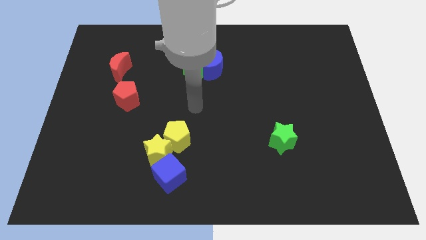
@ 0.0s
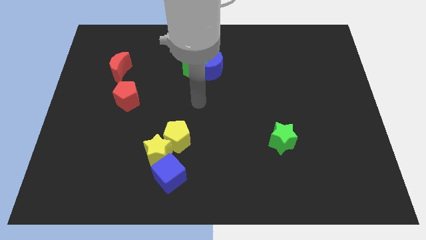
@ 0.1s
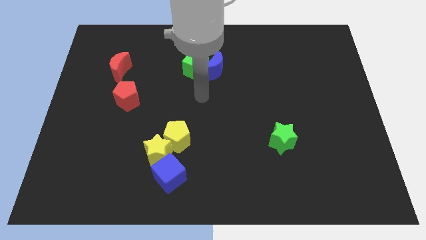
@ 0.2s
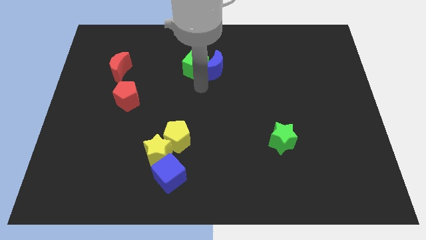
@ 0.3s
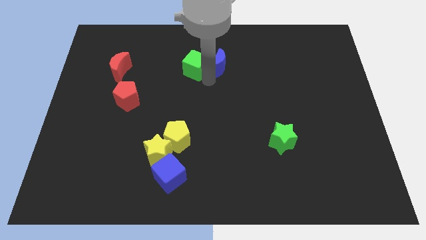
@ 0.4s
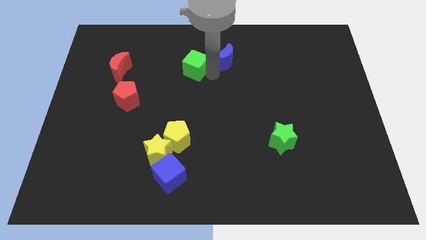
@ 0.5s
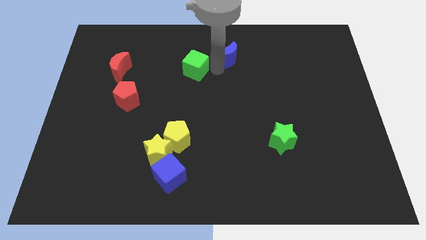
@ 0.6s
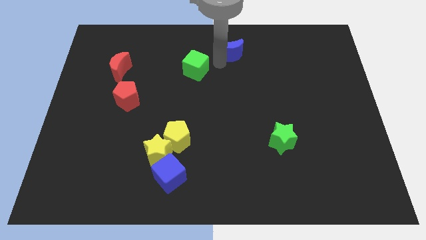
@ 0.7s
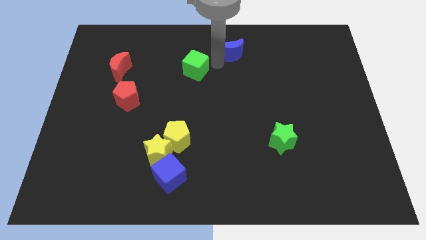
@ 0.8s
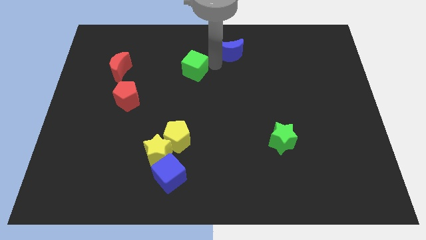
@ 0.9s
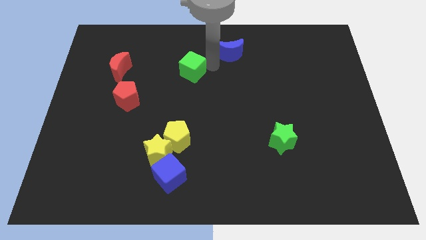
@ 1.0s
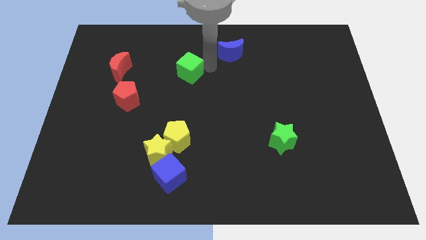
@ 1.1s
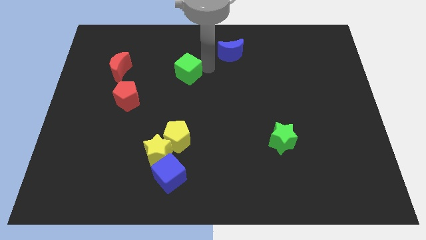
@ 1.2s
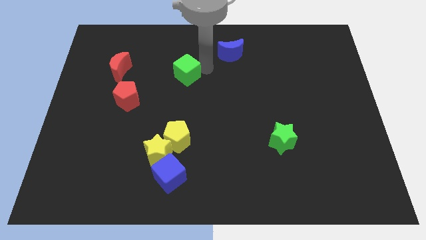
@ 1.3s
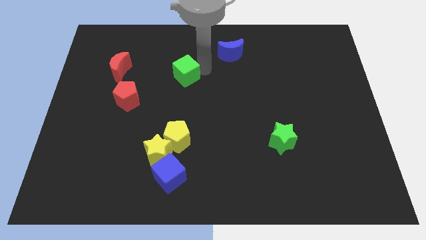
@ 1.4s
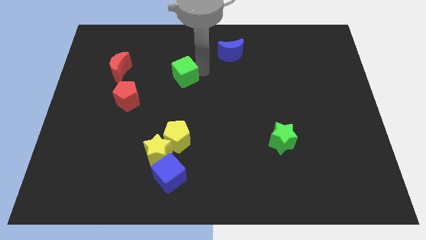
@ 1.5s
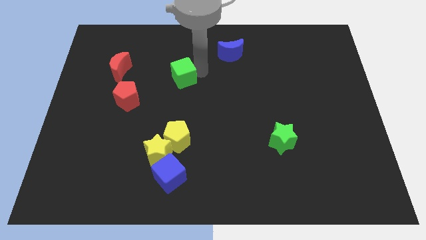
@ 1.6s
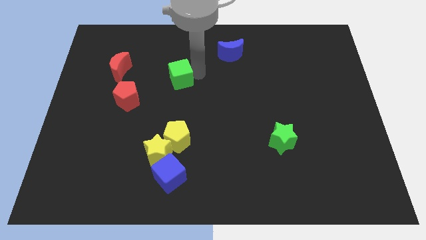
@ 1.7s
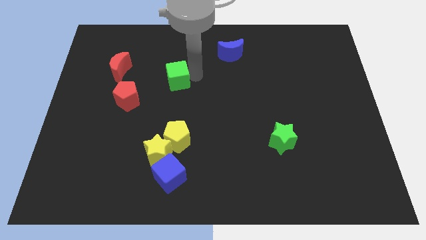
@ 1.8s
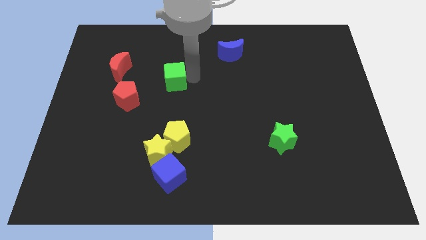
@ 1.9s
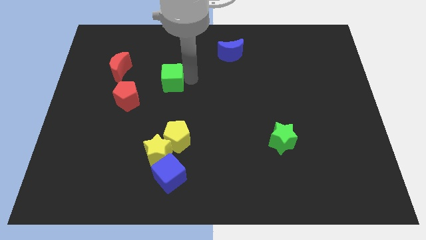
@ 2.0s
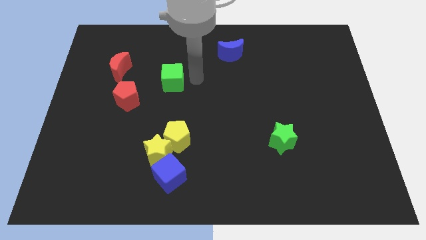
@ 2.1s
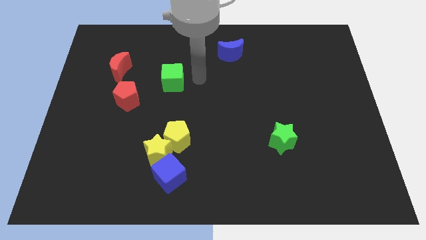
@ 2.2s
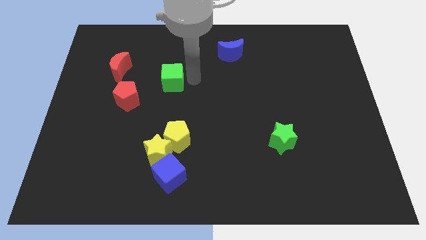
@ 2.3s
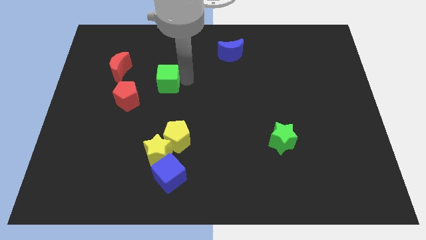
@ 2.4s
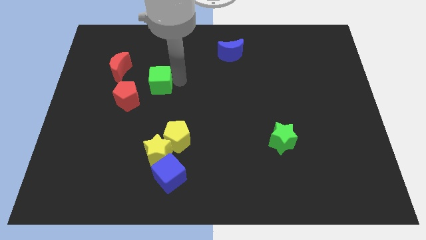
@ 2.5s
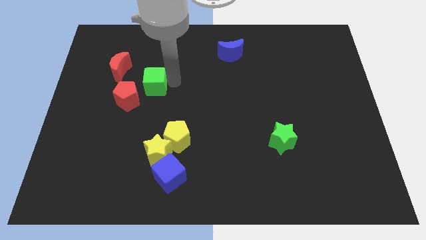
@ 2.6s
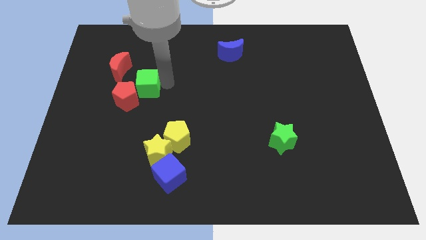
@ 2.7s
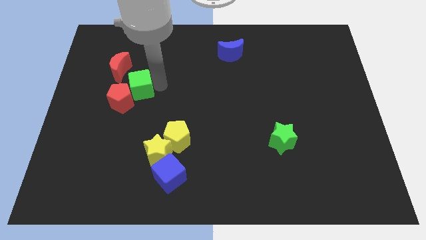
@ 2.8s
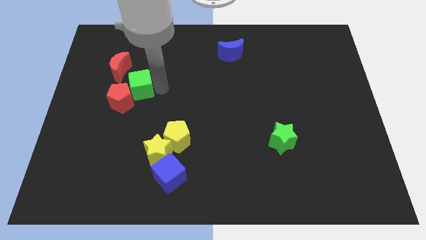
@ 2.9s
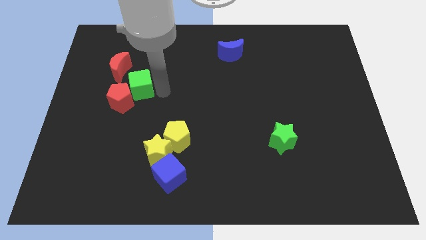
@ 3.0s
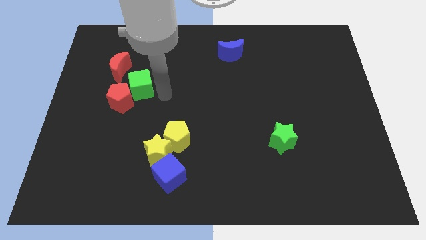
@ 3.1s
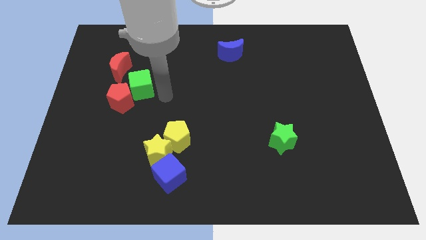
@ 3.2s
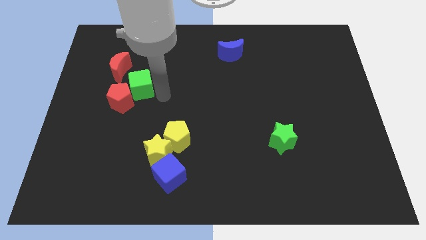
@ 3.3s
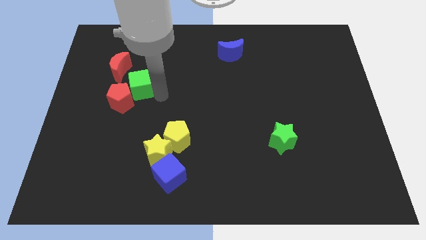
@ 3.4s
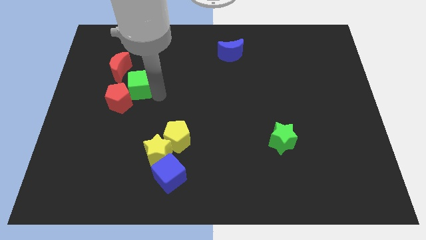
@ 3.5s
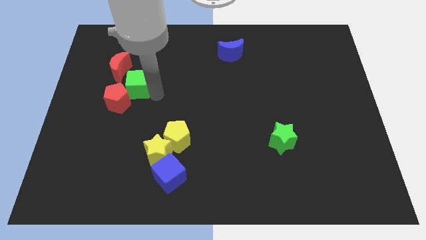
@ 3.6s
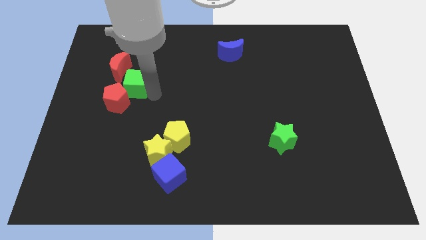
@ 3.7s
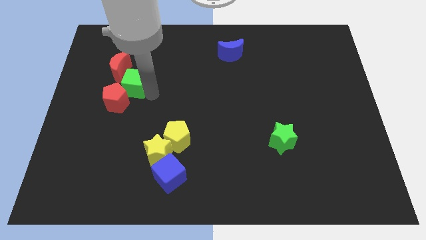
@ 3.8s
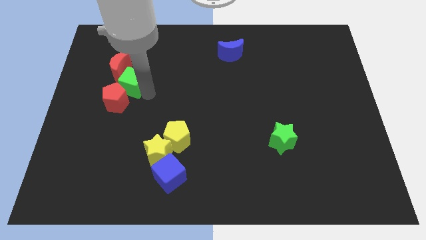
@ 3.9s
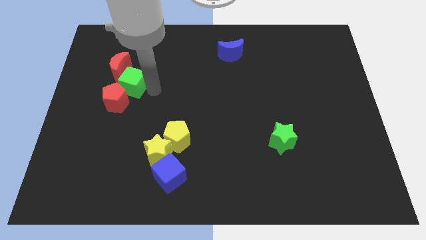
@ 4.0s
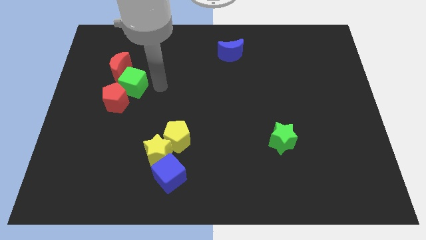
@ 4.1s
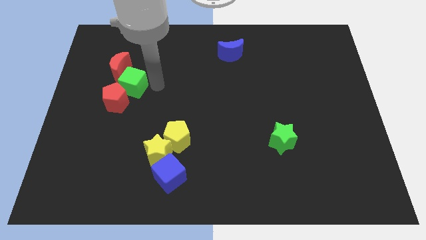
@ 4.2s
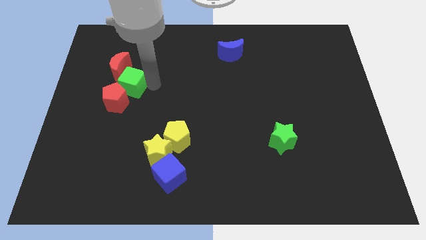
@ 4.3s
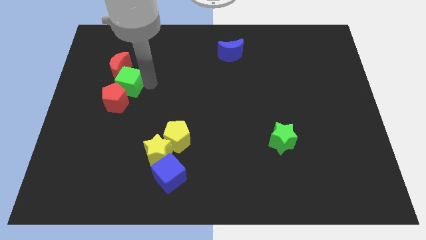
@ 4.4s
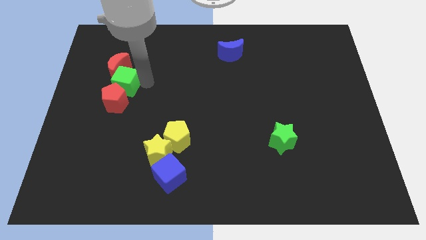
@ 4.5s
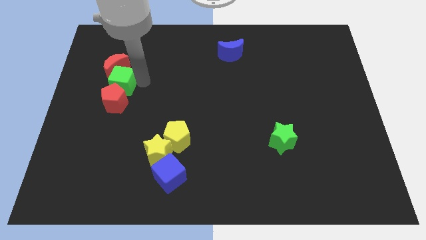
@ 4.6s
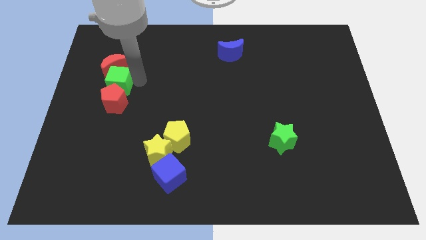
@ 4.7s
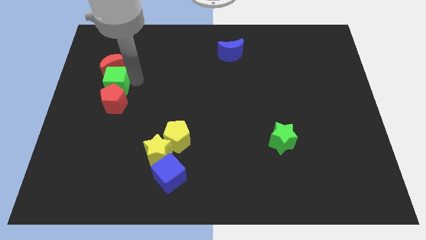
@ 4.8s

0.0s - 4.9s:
slide the green cube to the bottom left side of the red moon

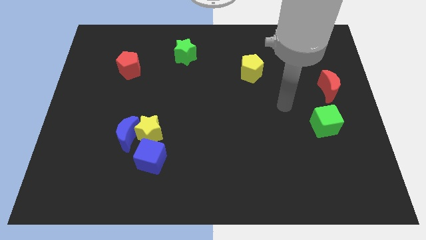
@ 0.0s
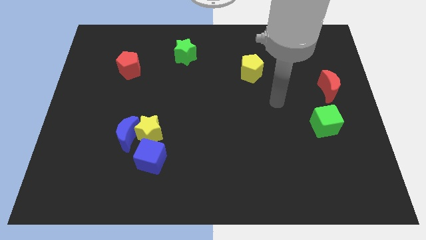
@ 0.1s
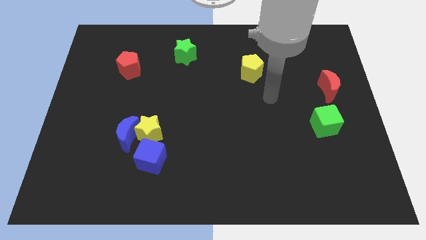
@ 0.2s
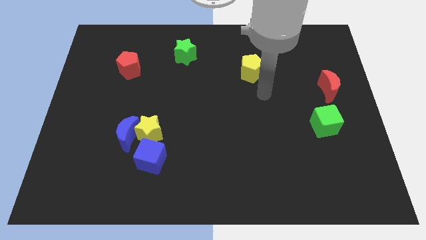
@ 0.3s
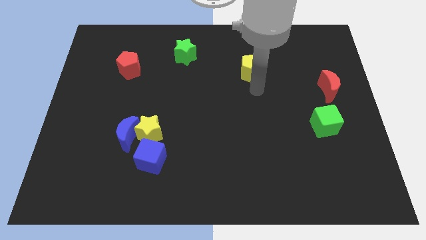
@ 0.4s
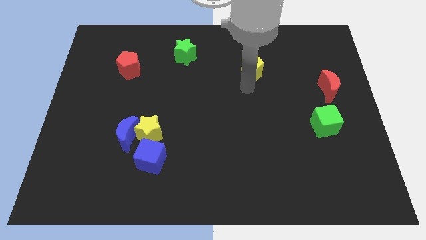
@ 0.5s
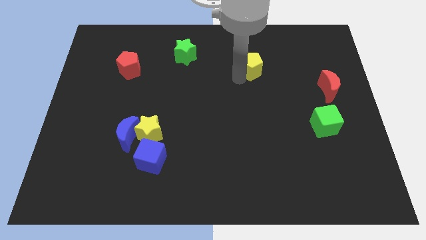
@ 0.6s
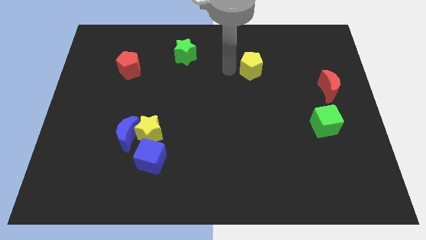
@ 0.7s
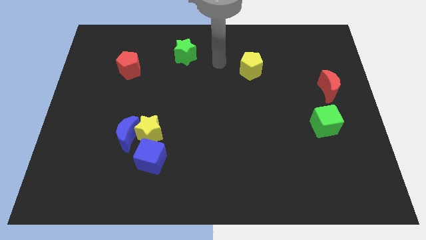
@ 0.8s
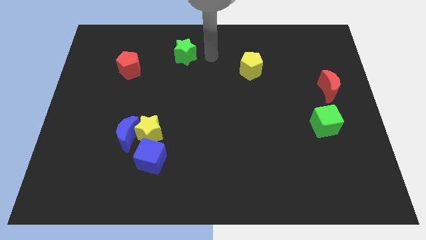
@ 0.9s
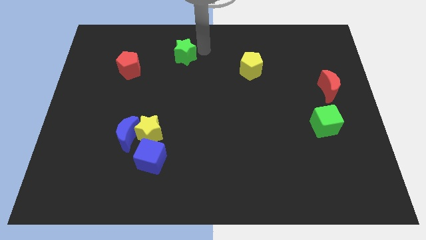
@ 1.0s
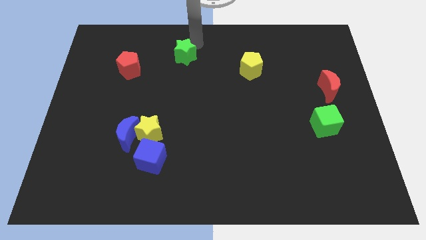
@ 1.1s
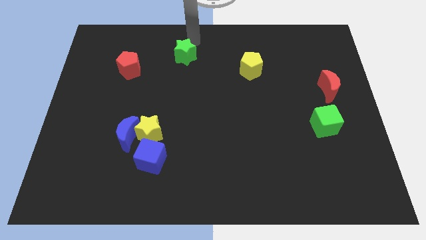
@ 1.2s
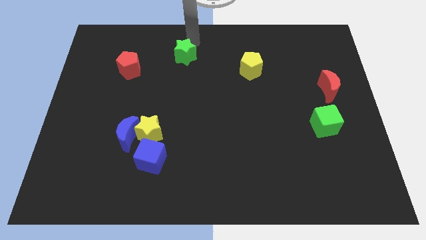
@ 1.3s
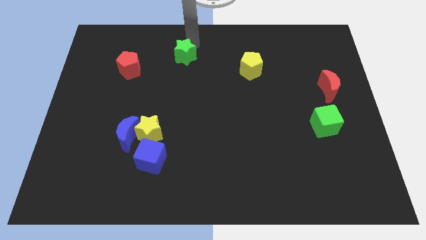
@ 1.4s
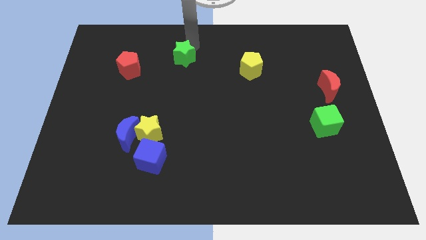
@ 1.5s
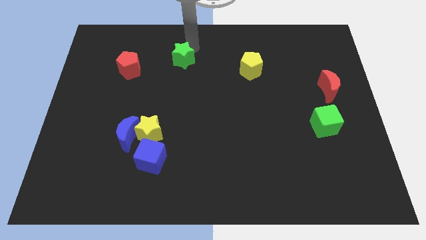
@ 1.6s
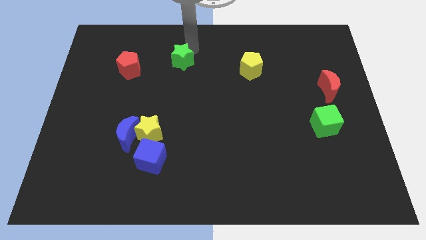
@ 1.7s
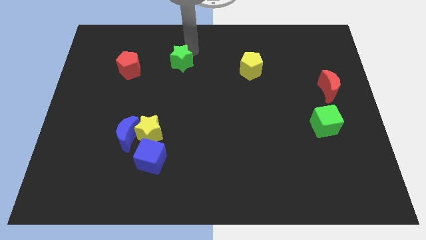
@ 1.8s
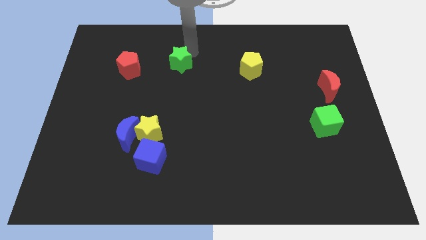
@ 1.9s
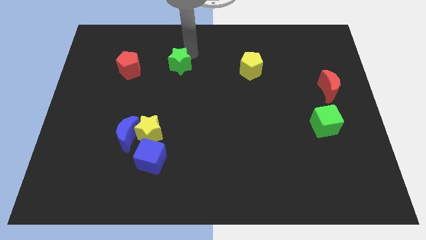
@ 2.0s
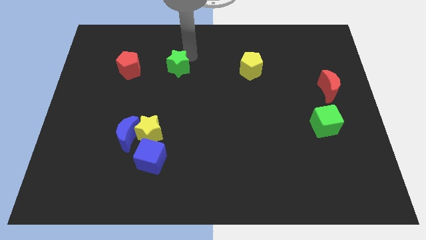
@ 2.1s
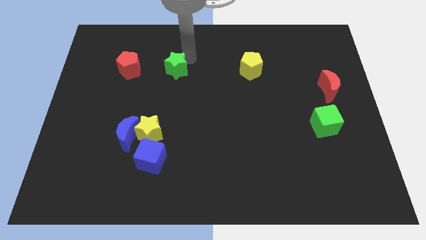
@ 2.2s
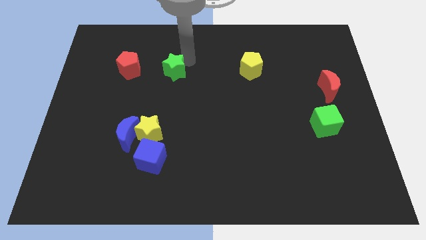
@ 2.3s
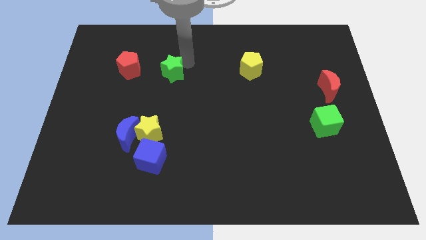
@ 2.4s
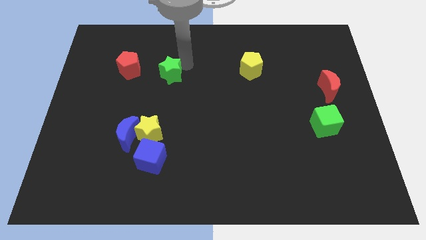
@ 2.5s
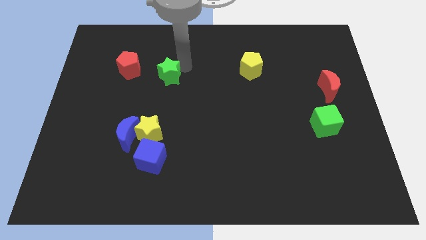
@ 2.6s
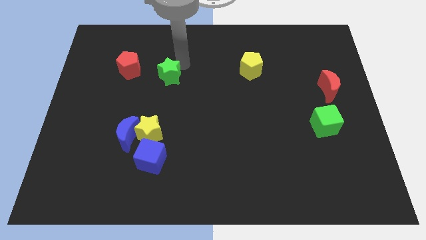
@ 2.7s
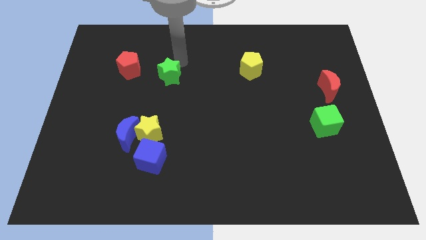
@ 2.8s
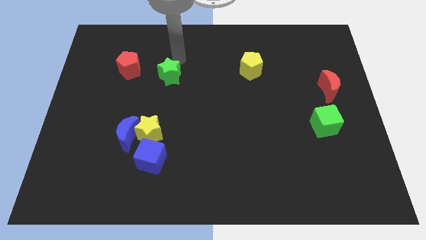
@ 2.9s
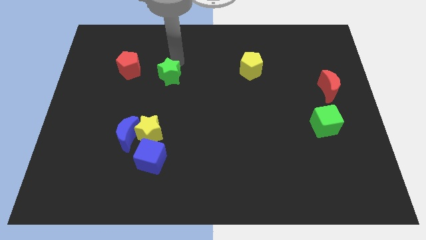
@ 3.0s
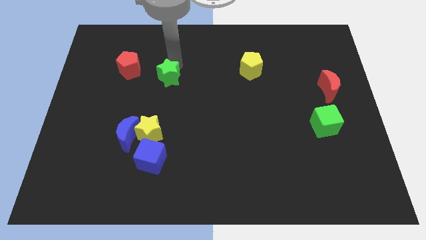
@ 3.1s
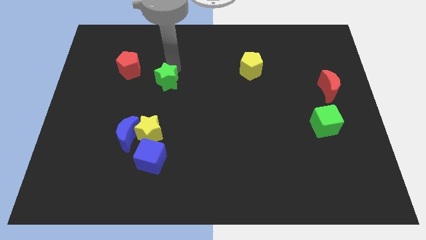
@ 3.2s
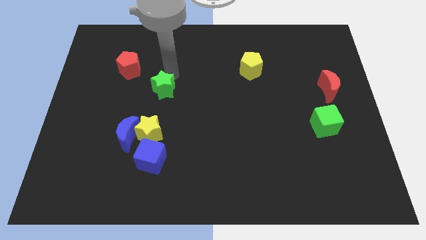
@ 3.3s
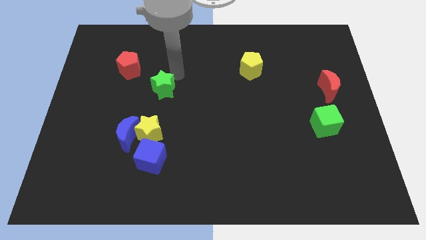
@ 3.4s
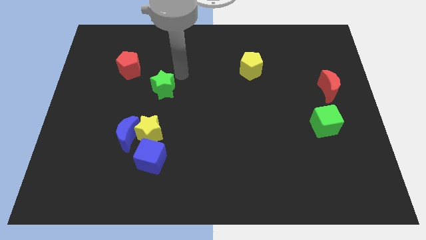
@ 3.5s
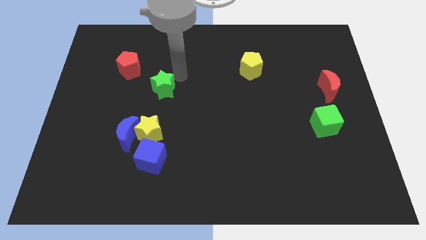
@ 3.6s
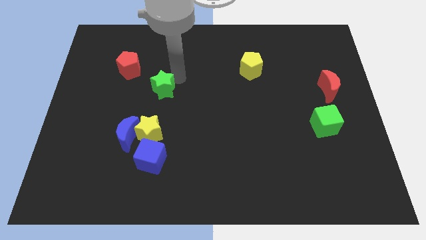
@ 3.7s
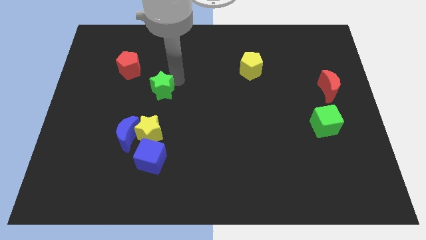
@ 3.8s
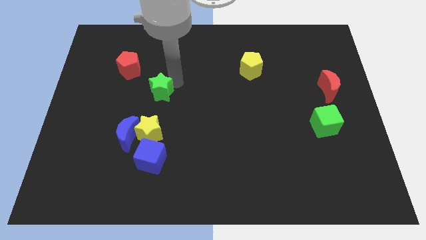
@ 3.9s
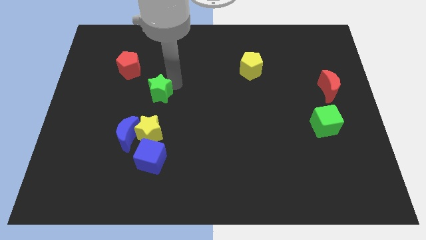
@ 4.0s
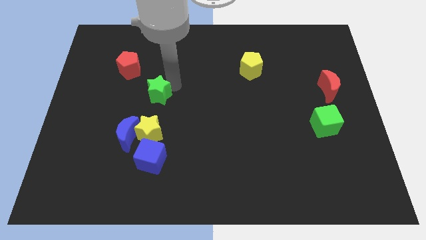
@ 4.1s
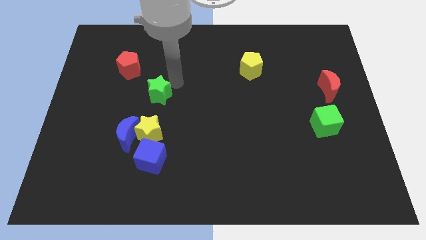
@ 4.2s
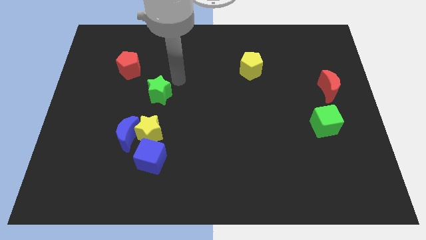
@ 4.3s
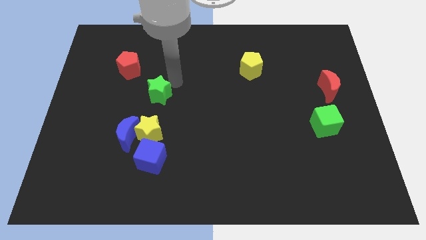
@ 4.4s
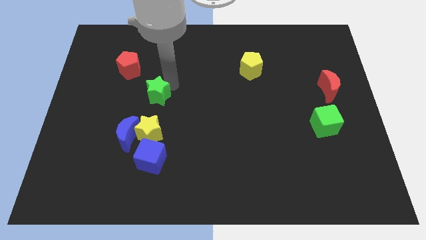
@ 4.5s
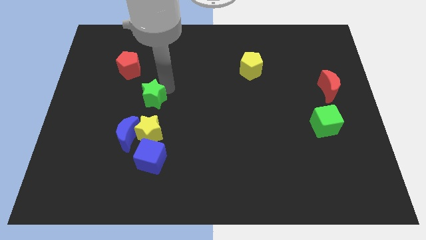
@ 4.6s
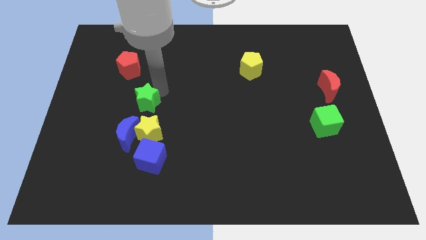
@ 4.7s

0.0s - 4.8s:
slide the green star to the top side of the blue cube
